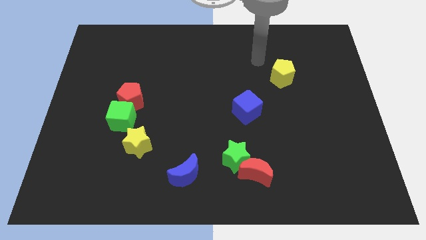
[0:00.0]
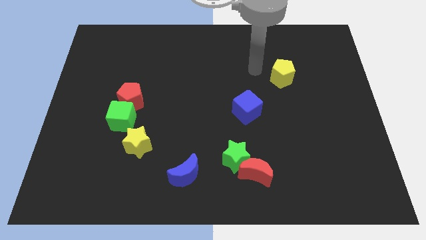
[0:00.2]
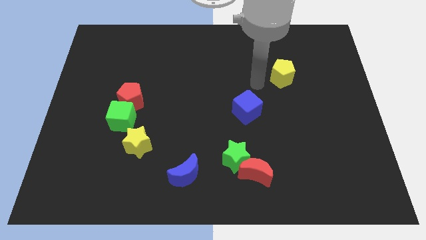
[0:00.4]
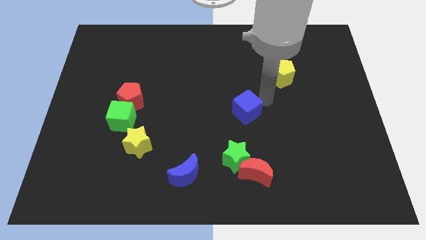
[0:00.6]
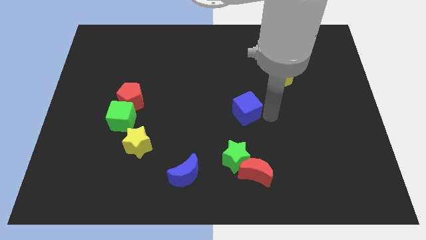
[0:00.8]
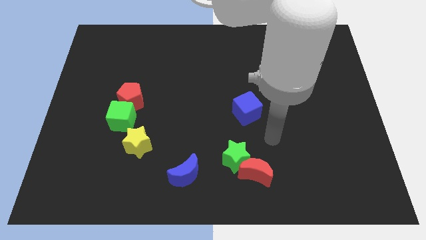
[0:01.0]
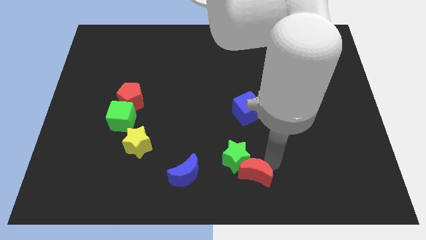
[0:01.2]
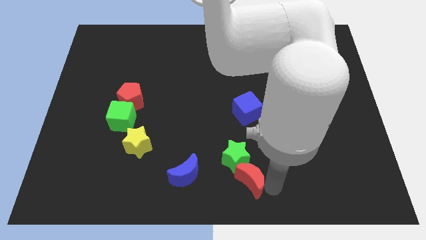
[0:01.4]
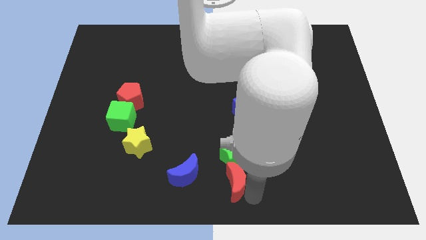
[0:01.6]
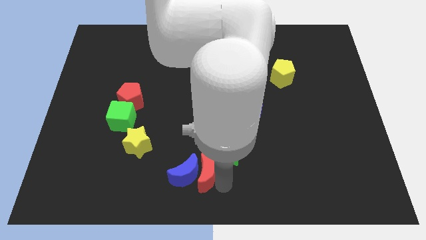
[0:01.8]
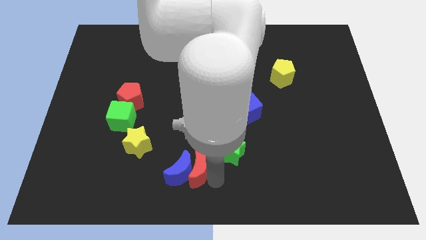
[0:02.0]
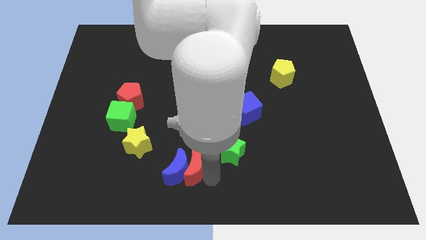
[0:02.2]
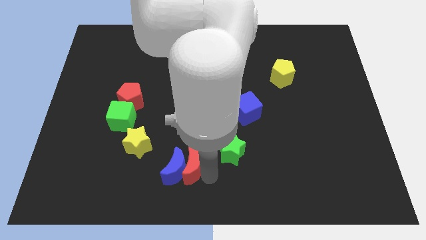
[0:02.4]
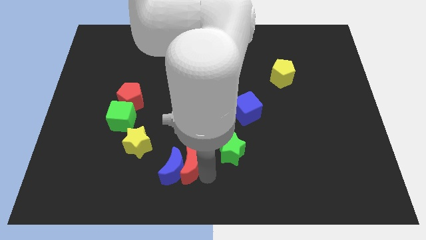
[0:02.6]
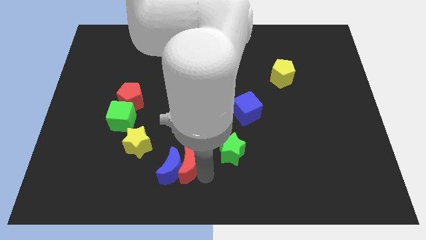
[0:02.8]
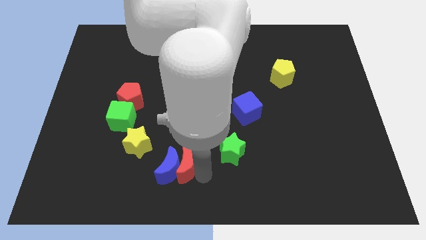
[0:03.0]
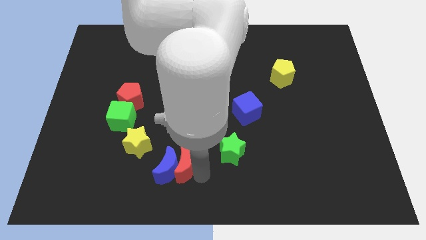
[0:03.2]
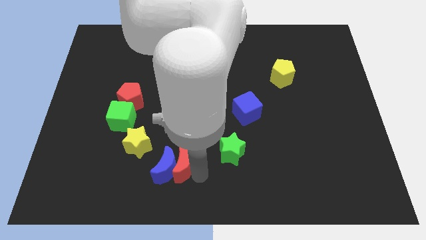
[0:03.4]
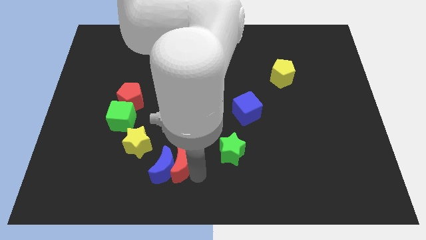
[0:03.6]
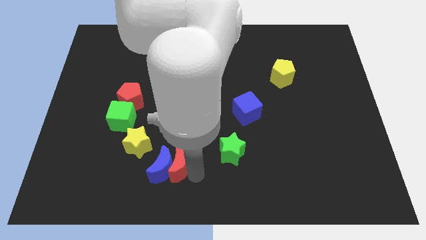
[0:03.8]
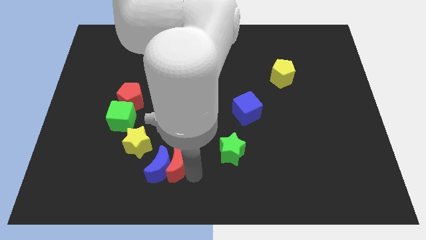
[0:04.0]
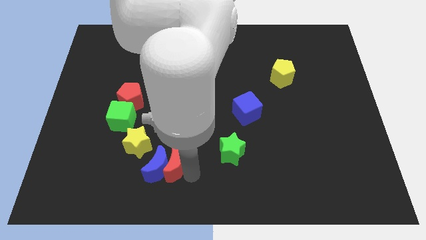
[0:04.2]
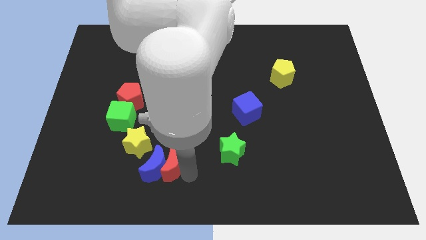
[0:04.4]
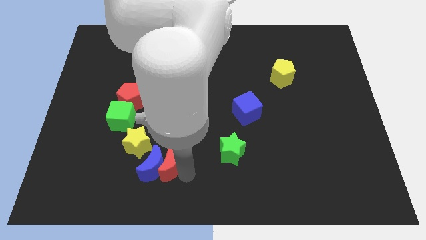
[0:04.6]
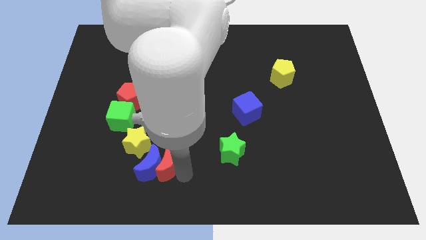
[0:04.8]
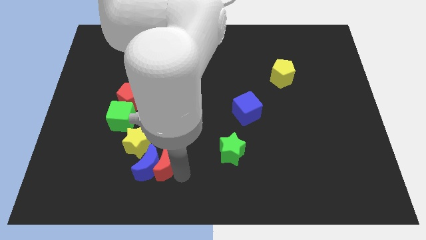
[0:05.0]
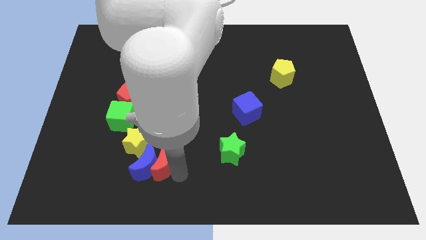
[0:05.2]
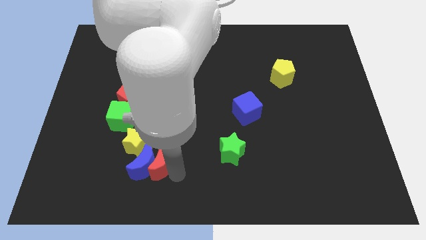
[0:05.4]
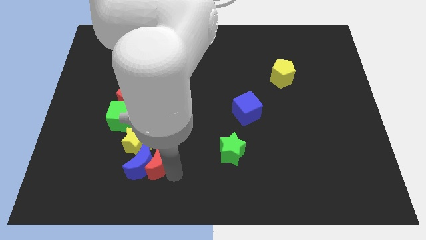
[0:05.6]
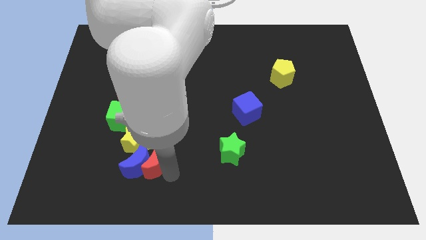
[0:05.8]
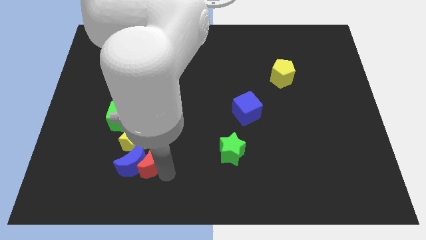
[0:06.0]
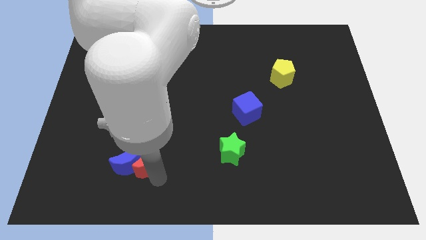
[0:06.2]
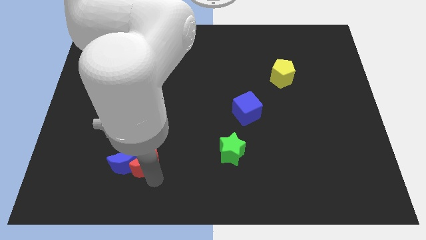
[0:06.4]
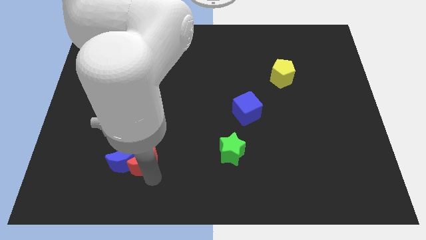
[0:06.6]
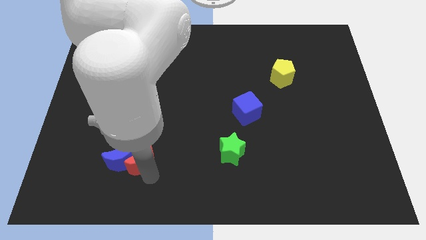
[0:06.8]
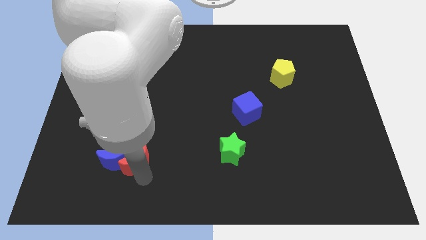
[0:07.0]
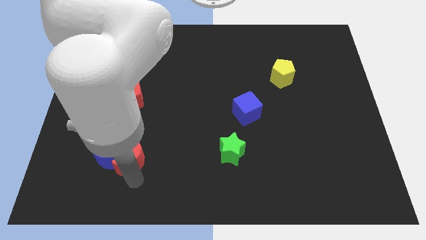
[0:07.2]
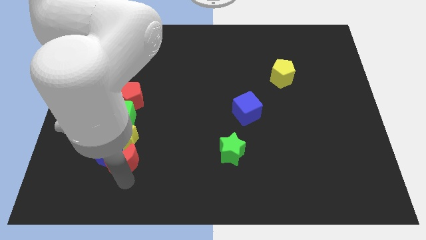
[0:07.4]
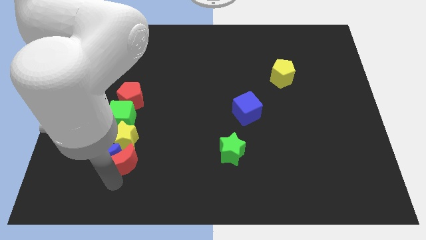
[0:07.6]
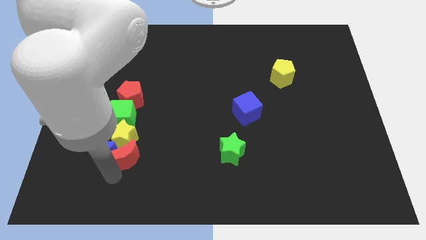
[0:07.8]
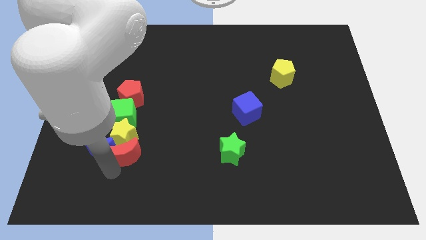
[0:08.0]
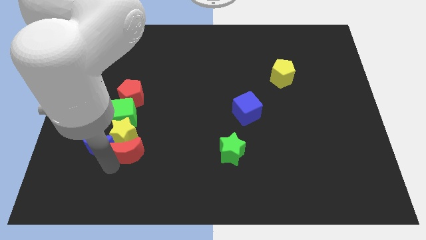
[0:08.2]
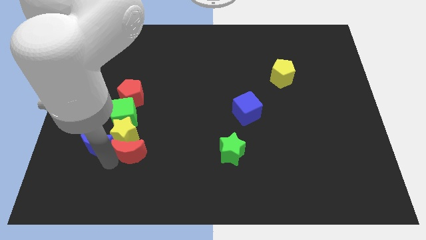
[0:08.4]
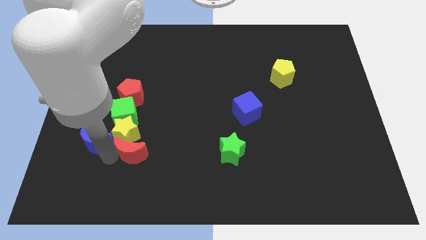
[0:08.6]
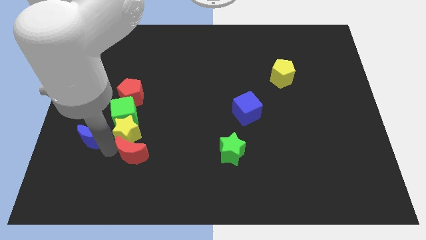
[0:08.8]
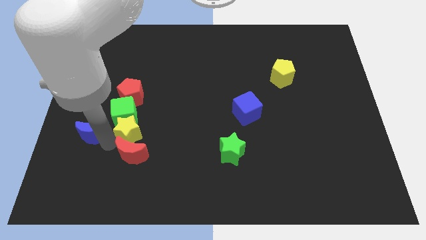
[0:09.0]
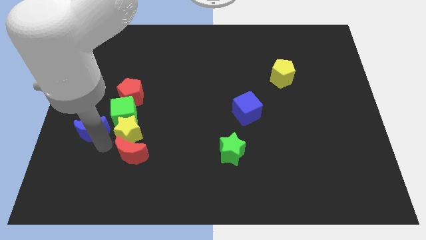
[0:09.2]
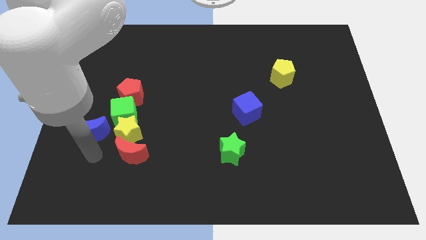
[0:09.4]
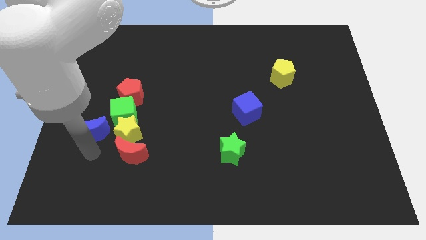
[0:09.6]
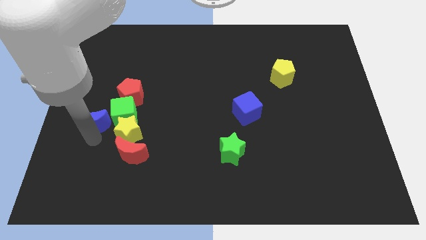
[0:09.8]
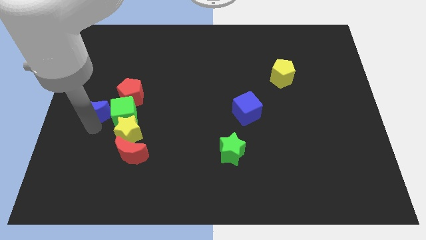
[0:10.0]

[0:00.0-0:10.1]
move the blue moon diagonally up and to the left of the green cube

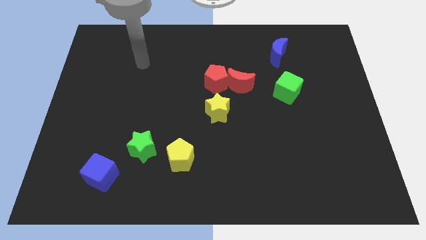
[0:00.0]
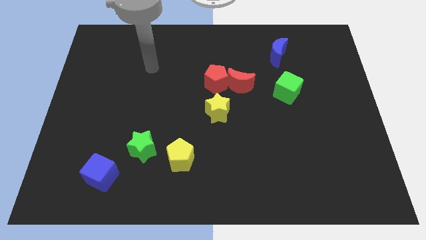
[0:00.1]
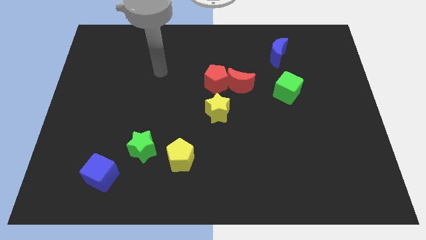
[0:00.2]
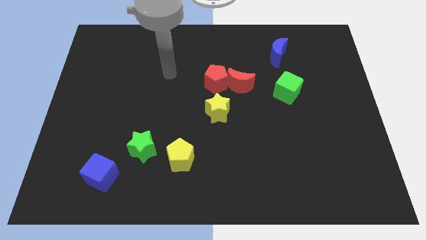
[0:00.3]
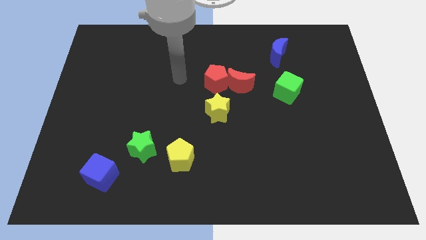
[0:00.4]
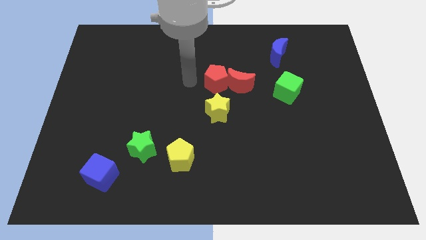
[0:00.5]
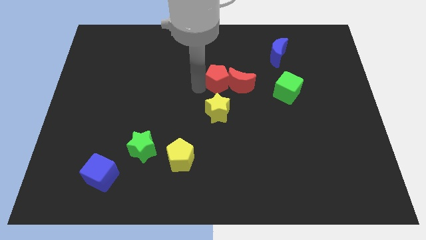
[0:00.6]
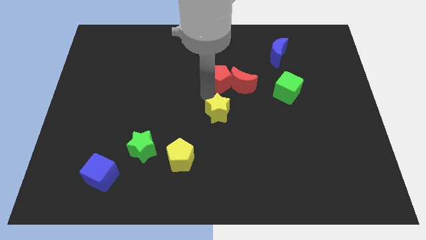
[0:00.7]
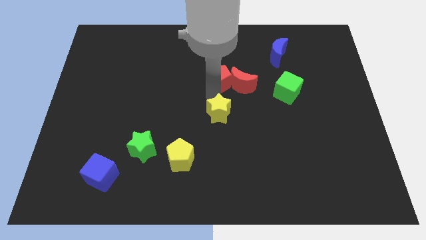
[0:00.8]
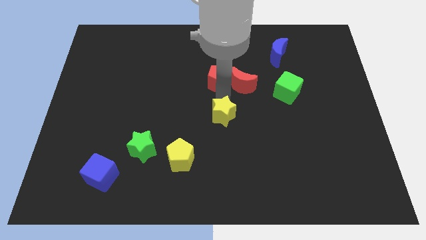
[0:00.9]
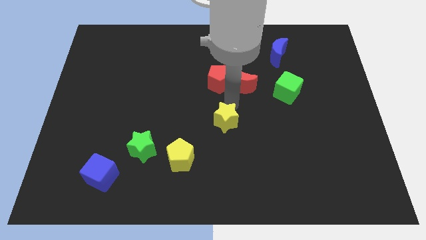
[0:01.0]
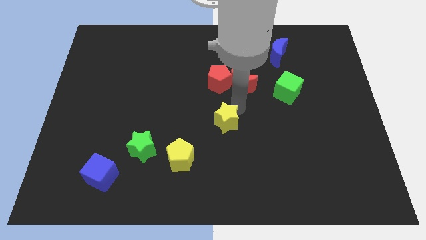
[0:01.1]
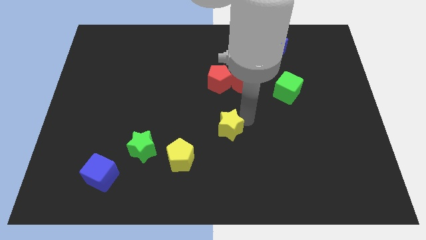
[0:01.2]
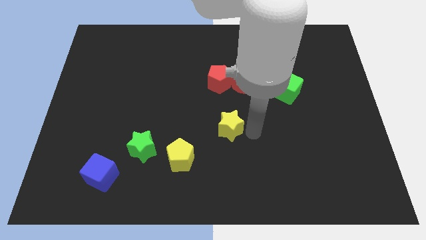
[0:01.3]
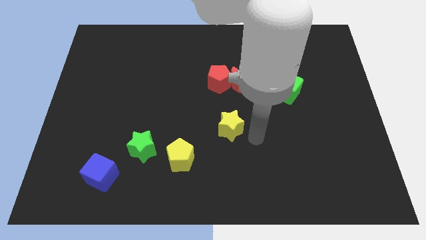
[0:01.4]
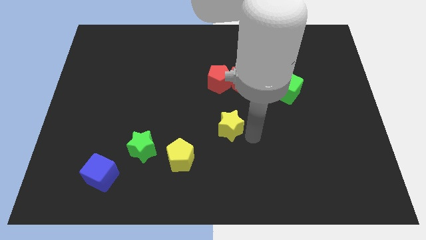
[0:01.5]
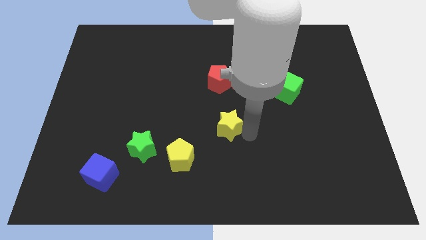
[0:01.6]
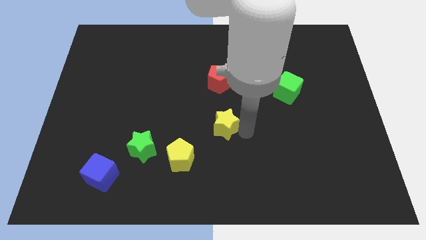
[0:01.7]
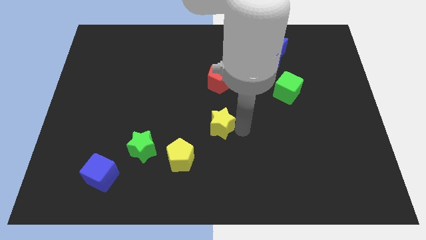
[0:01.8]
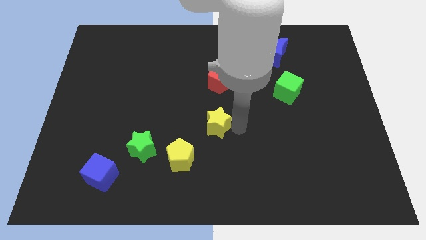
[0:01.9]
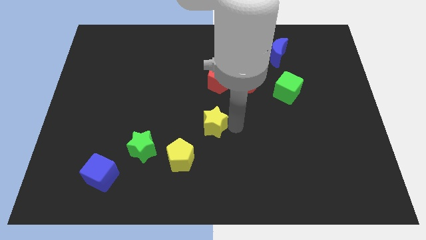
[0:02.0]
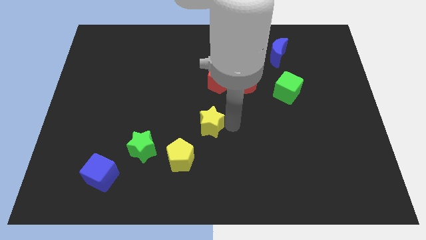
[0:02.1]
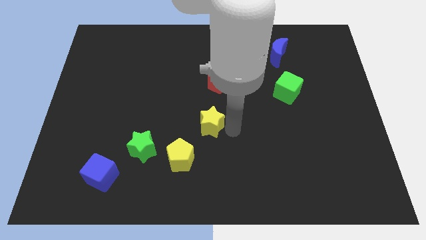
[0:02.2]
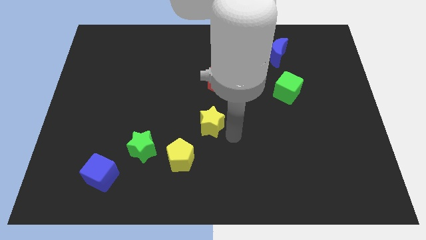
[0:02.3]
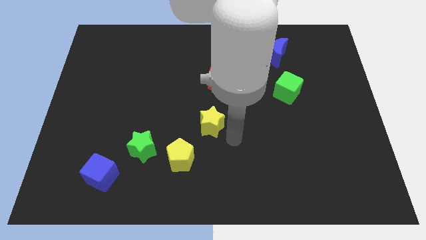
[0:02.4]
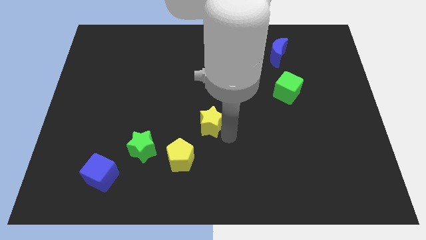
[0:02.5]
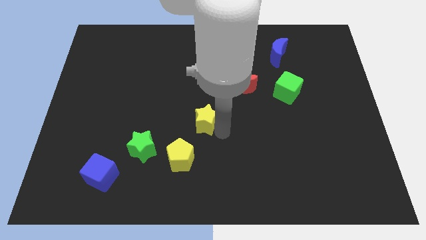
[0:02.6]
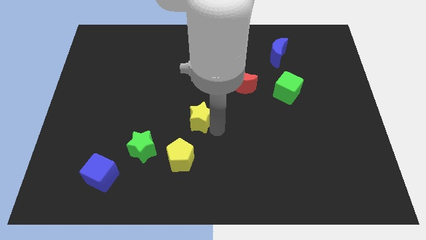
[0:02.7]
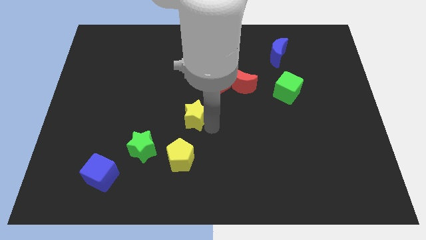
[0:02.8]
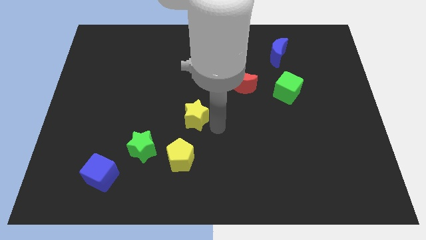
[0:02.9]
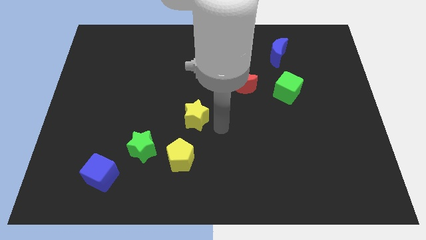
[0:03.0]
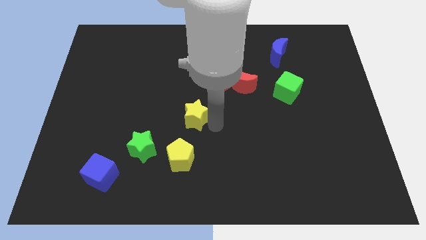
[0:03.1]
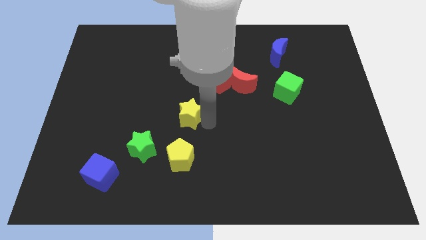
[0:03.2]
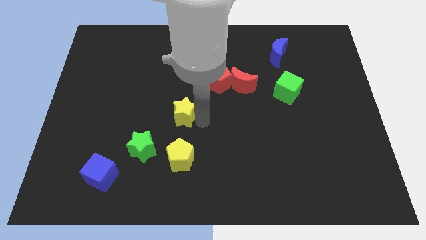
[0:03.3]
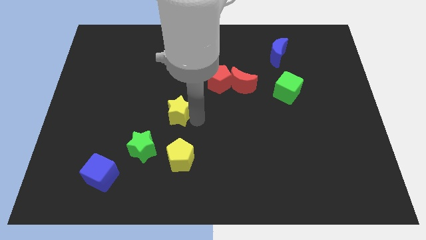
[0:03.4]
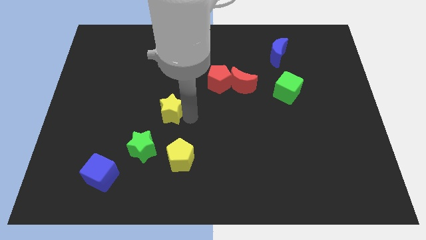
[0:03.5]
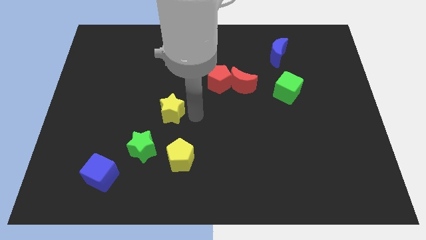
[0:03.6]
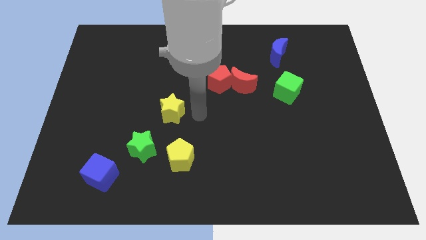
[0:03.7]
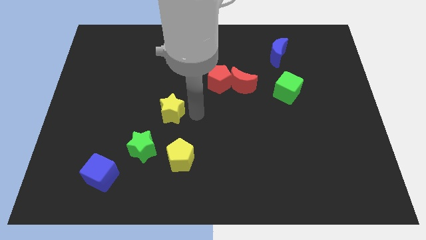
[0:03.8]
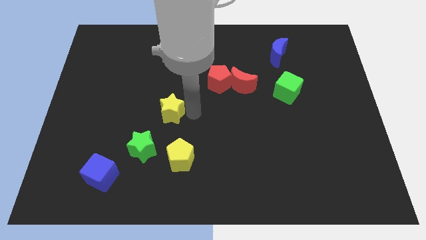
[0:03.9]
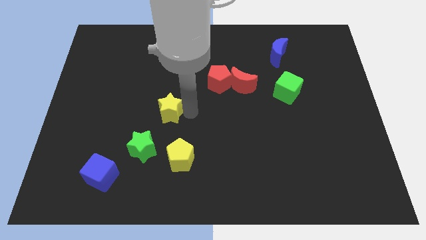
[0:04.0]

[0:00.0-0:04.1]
put the yellow star to the top side of the green star
